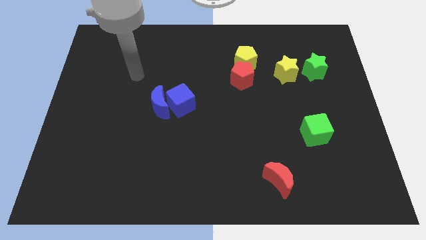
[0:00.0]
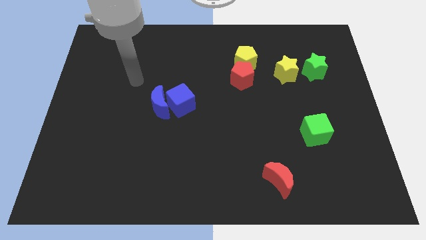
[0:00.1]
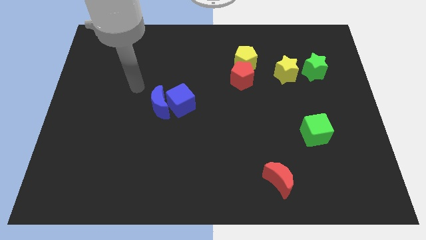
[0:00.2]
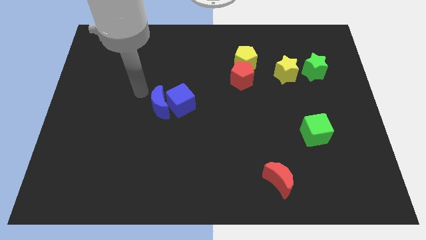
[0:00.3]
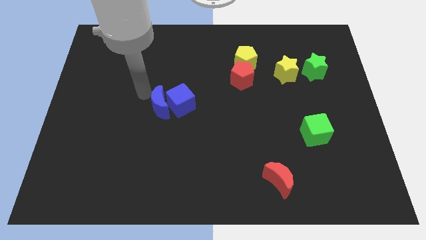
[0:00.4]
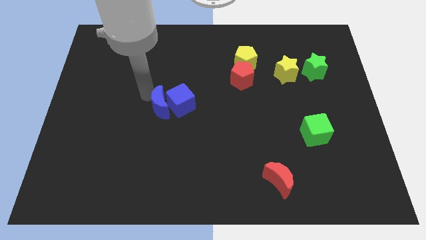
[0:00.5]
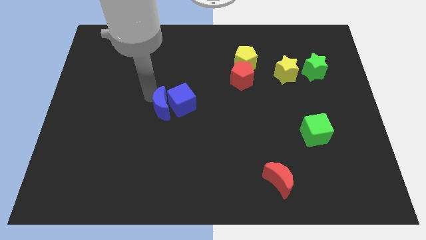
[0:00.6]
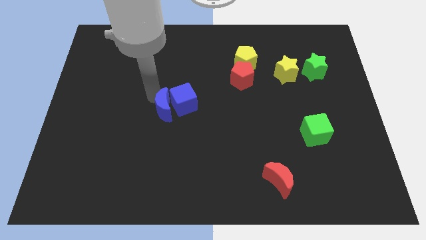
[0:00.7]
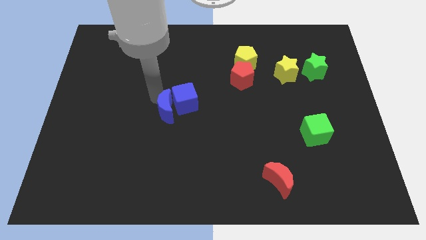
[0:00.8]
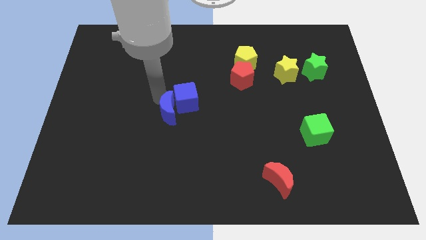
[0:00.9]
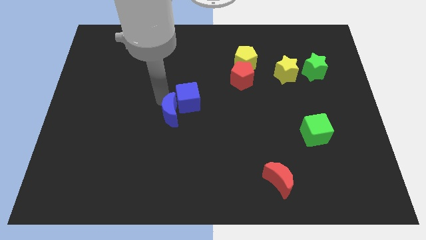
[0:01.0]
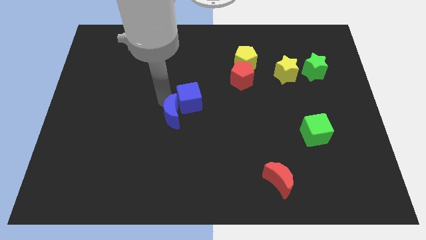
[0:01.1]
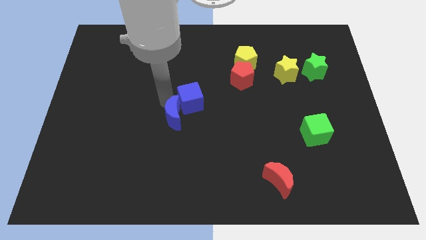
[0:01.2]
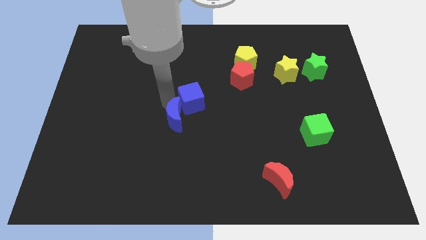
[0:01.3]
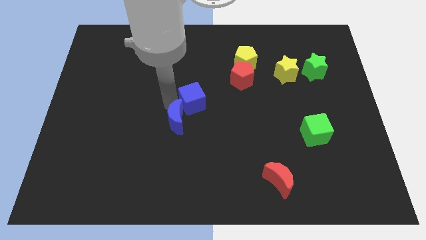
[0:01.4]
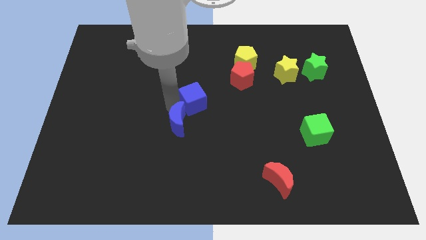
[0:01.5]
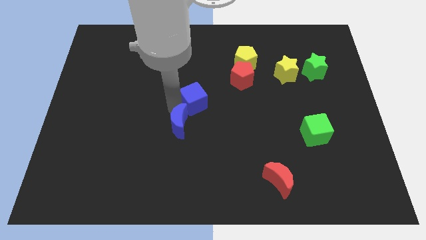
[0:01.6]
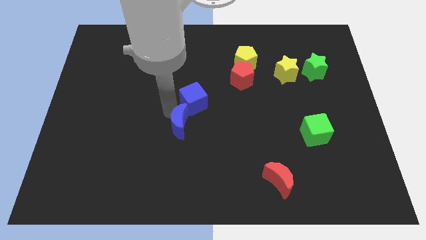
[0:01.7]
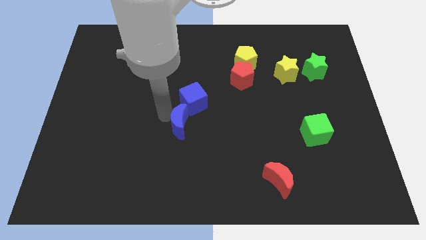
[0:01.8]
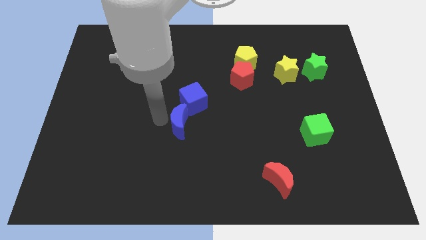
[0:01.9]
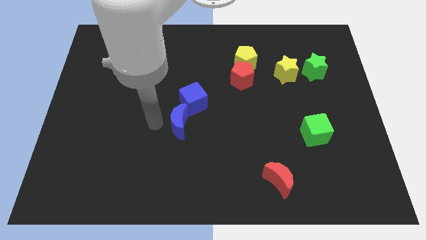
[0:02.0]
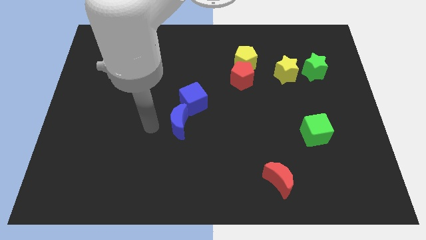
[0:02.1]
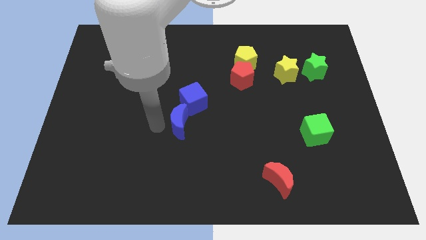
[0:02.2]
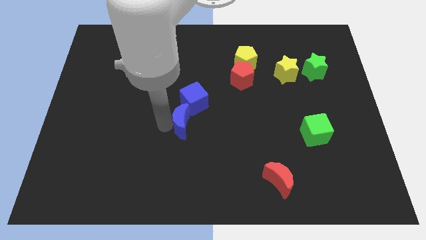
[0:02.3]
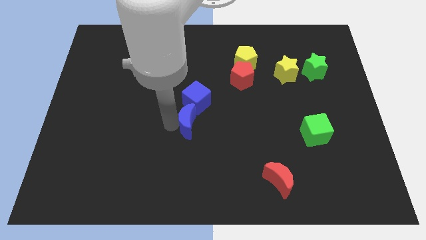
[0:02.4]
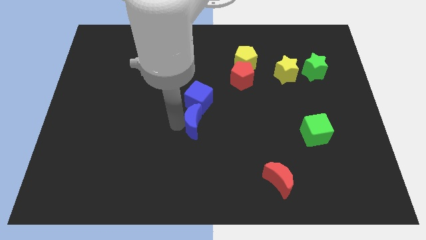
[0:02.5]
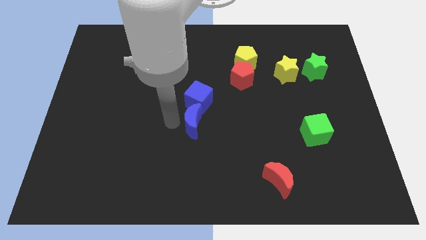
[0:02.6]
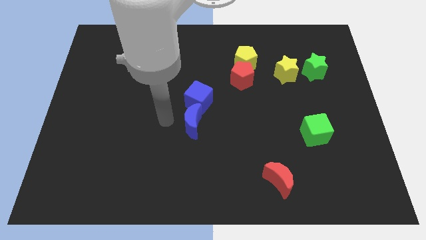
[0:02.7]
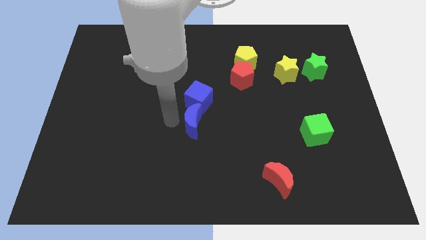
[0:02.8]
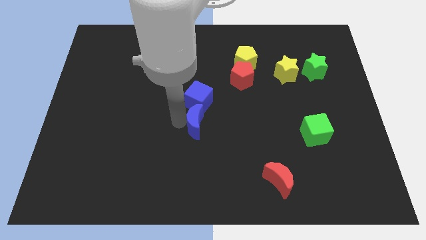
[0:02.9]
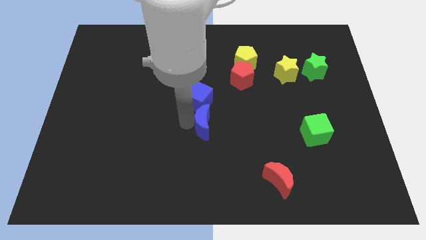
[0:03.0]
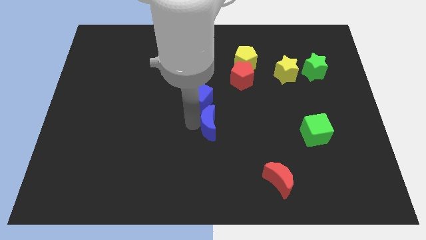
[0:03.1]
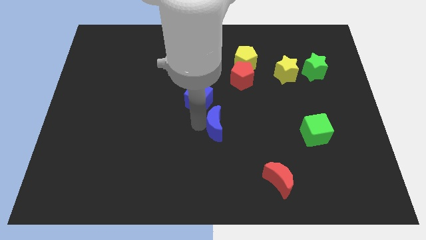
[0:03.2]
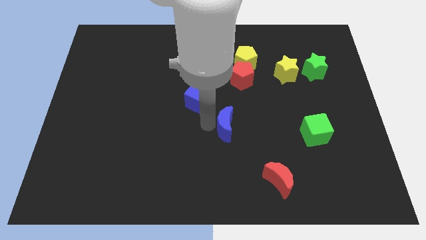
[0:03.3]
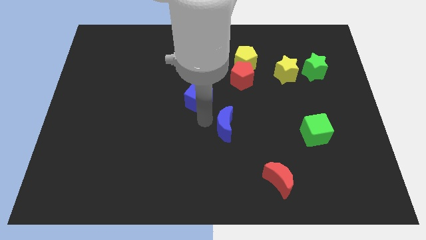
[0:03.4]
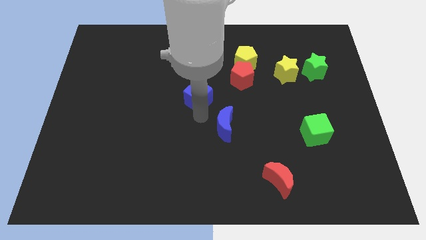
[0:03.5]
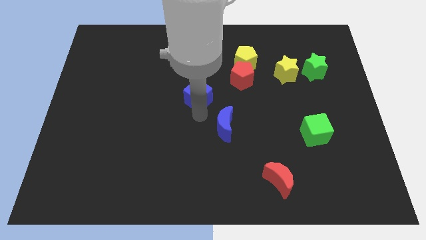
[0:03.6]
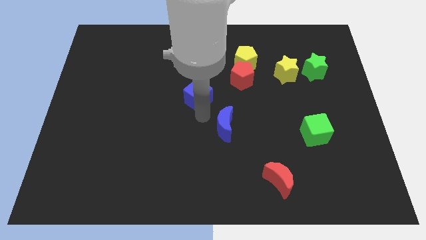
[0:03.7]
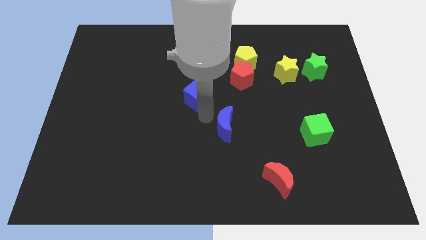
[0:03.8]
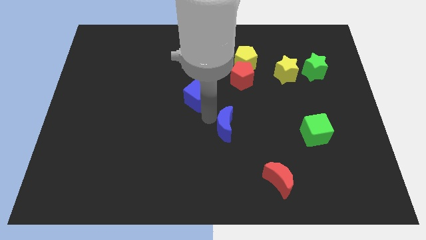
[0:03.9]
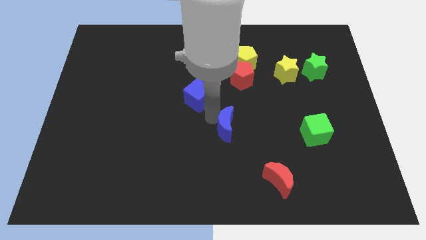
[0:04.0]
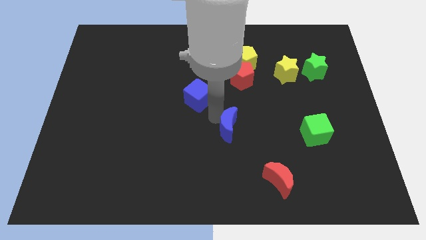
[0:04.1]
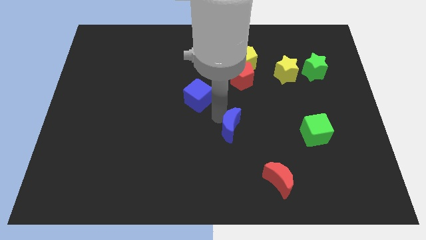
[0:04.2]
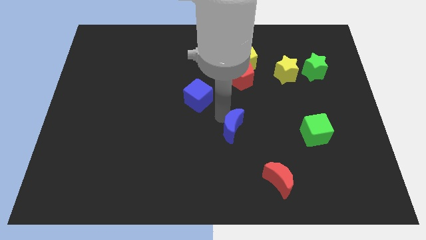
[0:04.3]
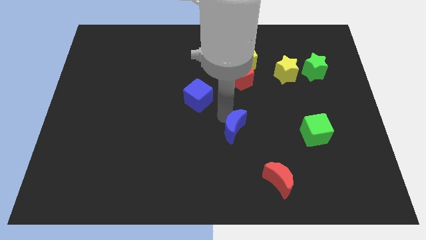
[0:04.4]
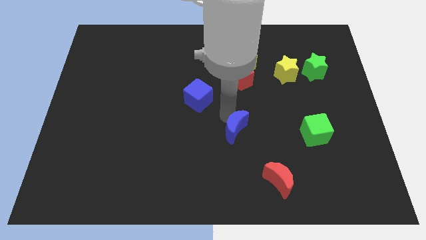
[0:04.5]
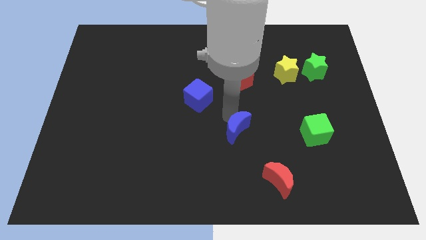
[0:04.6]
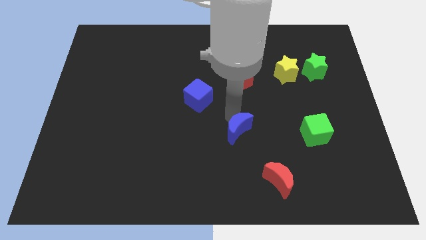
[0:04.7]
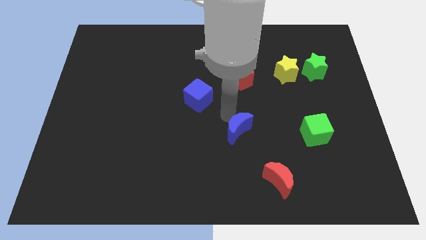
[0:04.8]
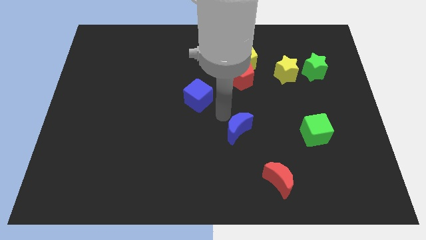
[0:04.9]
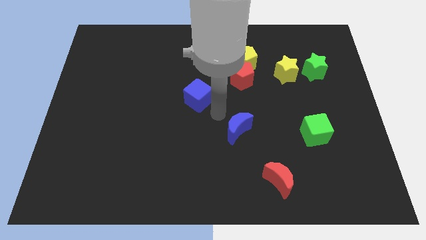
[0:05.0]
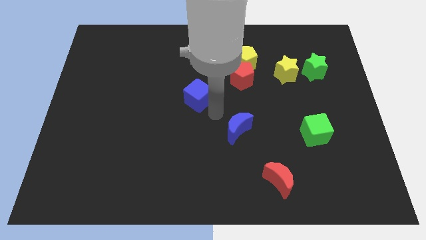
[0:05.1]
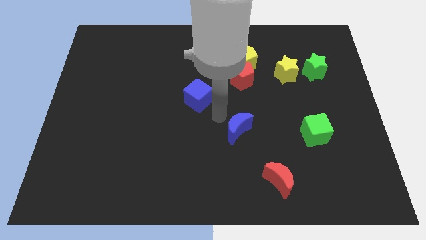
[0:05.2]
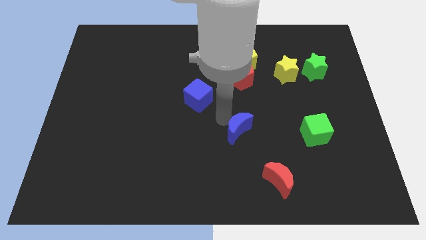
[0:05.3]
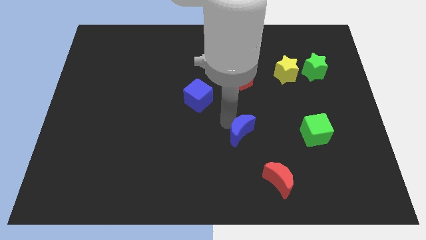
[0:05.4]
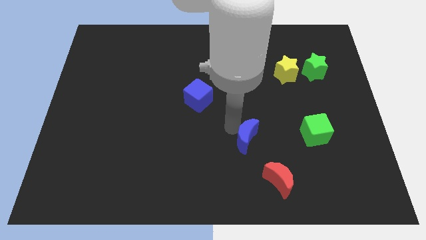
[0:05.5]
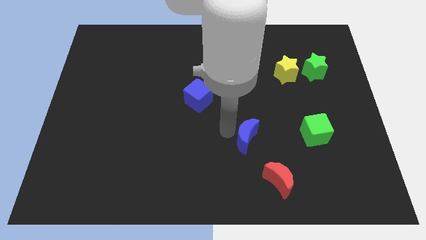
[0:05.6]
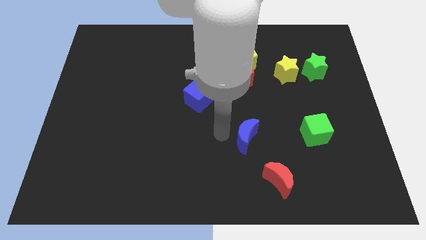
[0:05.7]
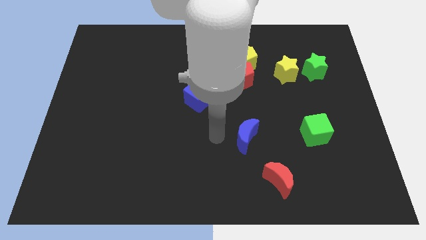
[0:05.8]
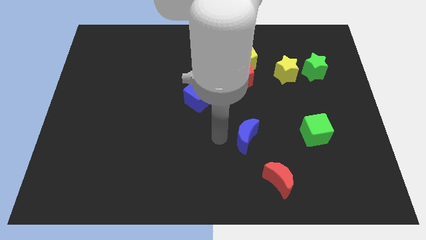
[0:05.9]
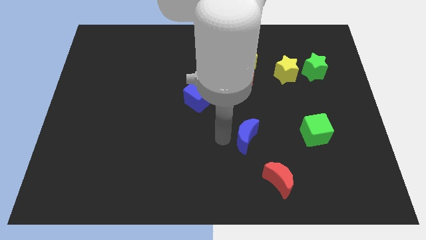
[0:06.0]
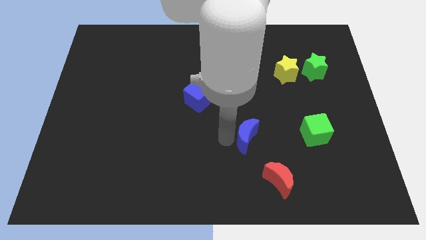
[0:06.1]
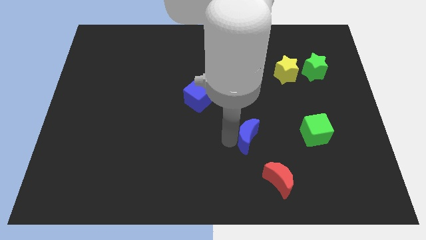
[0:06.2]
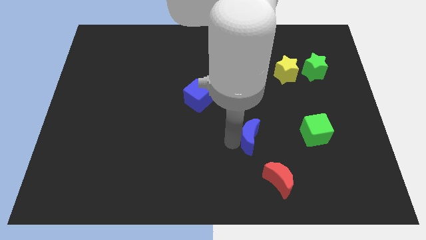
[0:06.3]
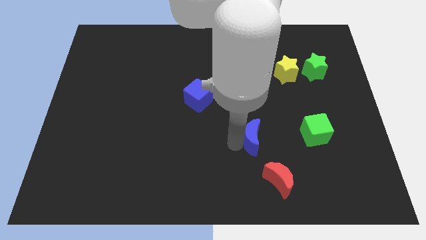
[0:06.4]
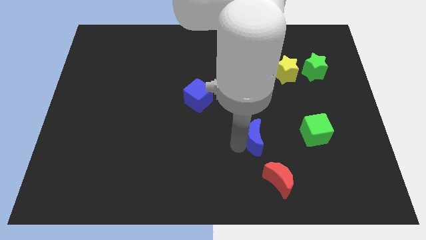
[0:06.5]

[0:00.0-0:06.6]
push the blue moon to the top side of the red moon
